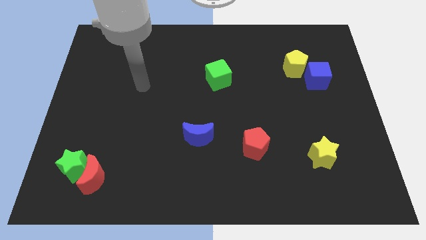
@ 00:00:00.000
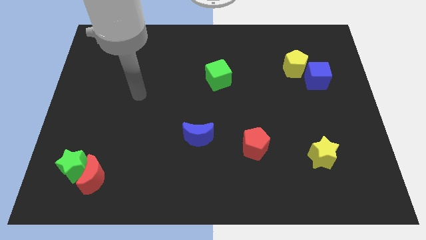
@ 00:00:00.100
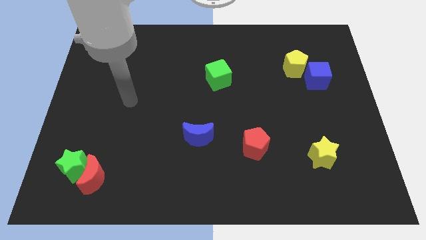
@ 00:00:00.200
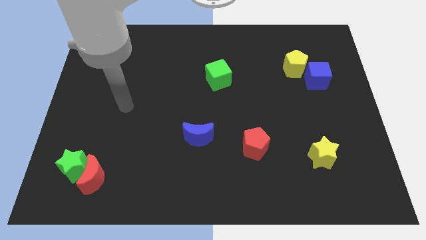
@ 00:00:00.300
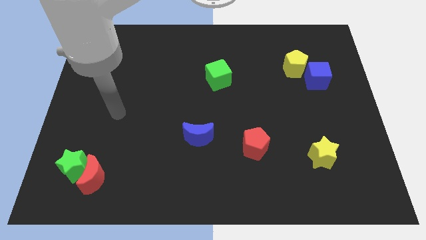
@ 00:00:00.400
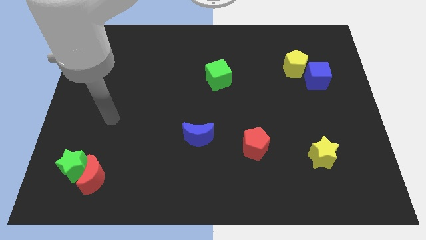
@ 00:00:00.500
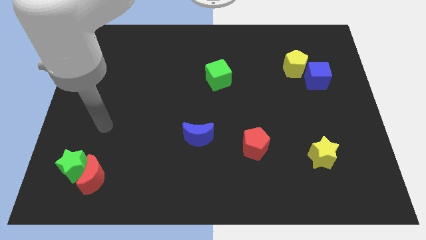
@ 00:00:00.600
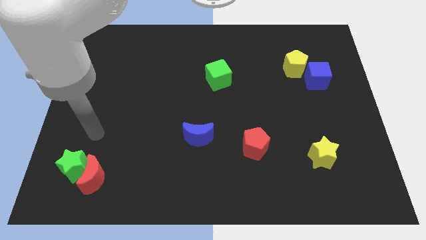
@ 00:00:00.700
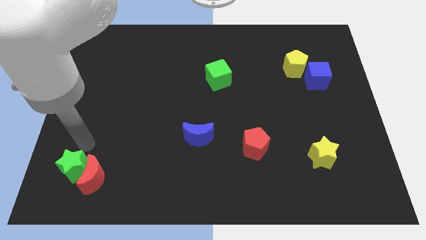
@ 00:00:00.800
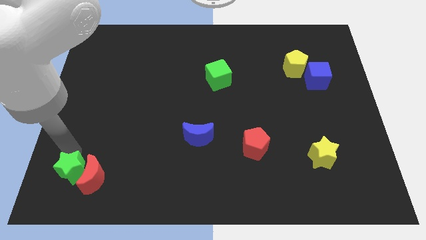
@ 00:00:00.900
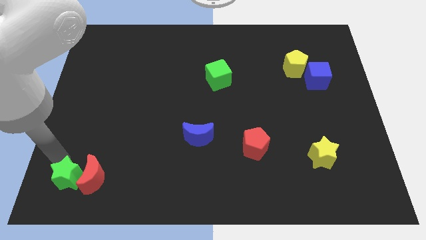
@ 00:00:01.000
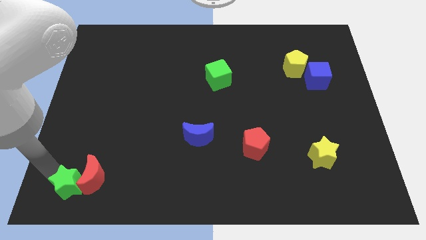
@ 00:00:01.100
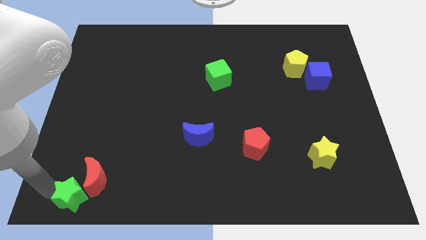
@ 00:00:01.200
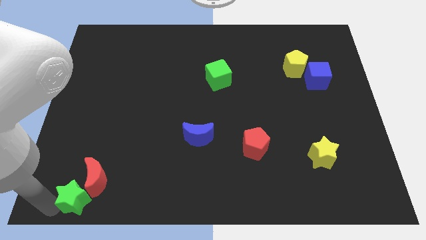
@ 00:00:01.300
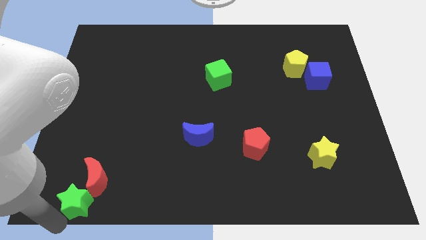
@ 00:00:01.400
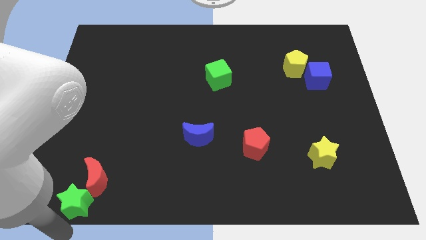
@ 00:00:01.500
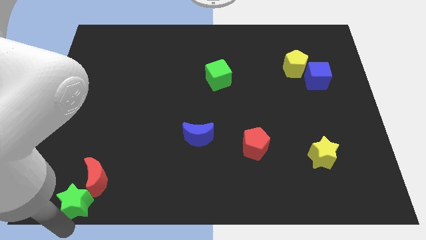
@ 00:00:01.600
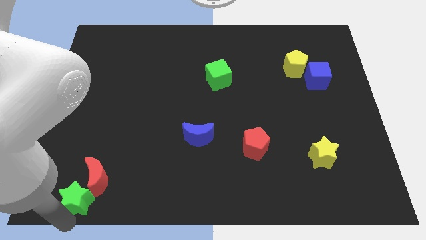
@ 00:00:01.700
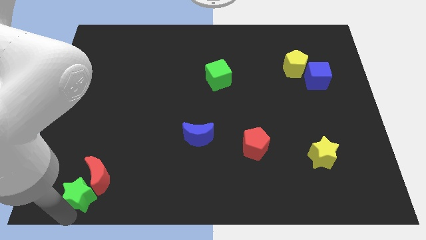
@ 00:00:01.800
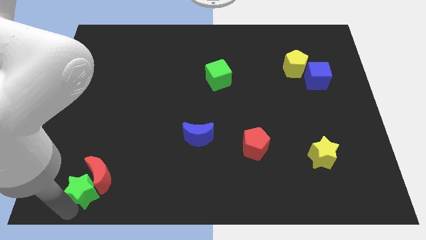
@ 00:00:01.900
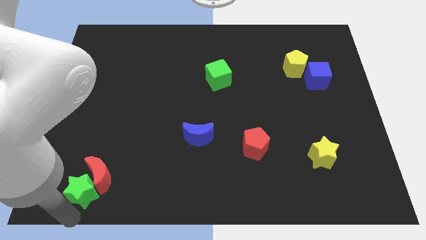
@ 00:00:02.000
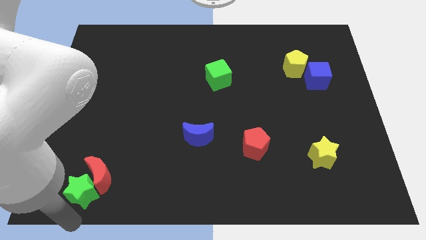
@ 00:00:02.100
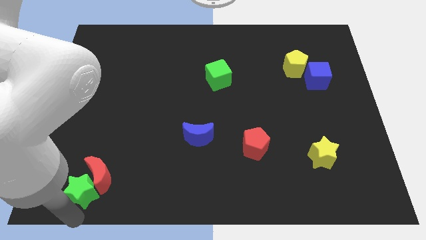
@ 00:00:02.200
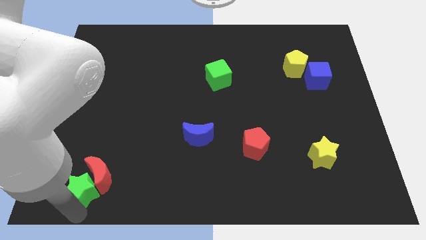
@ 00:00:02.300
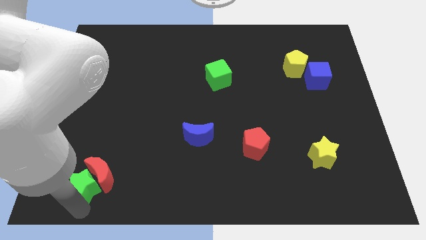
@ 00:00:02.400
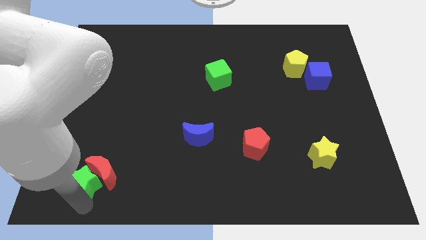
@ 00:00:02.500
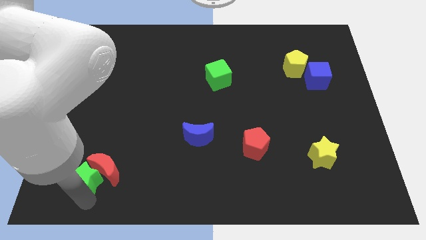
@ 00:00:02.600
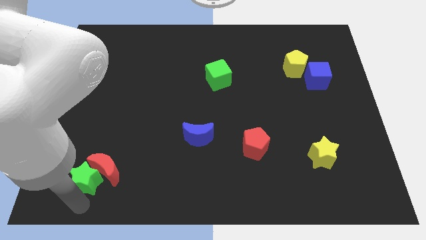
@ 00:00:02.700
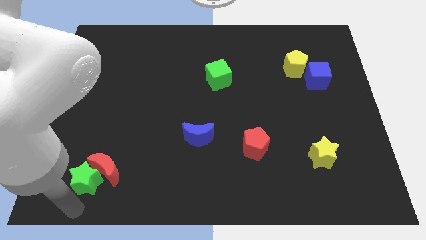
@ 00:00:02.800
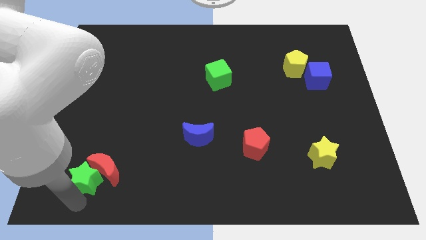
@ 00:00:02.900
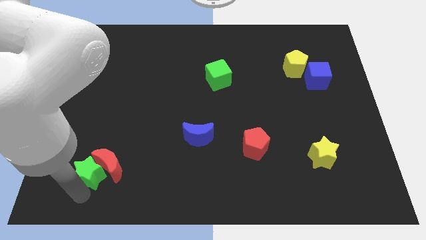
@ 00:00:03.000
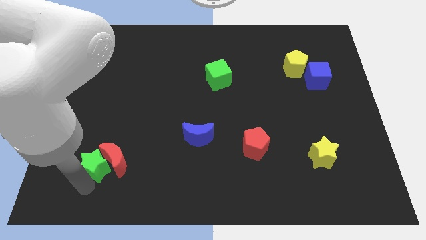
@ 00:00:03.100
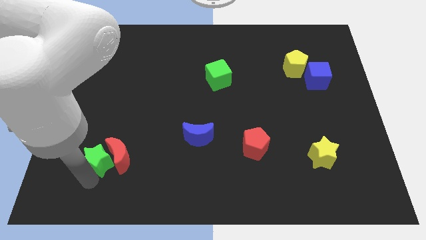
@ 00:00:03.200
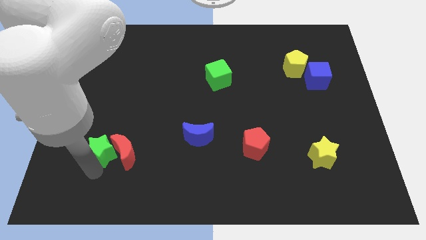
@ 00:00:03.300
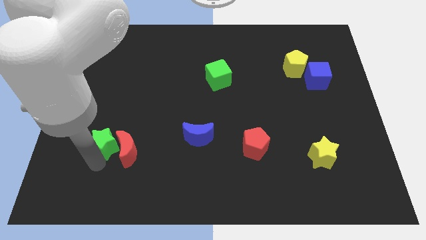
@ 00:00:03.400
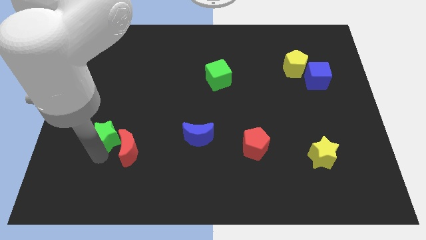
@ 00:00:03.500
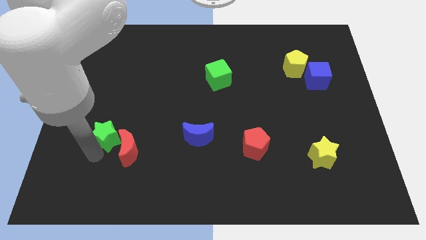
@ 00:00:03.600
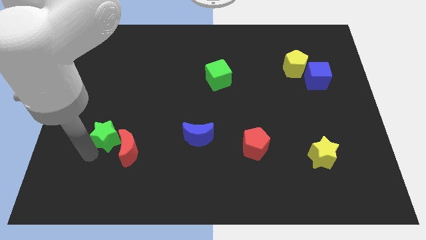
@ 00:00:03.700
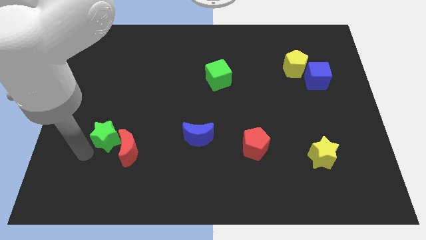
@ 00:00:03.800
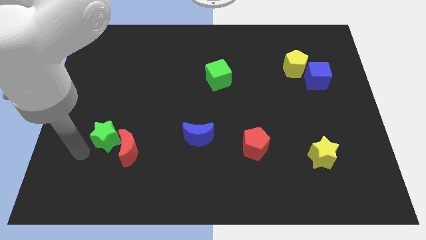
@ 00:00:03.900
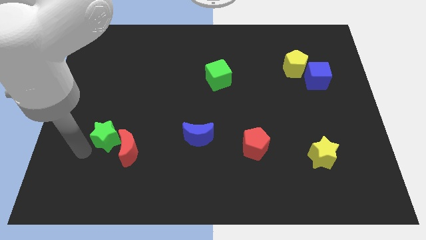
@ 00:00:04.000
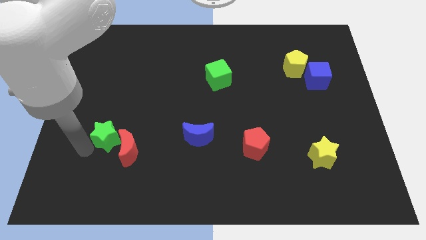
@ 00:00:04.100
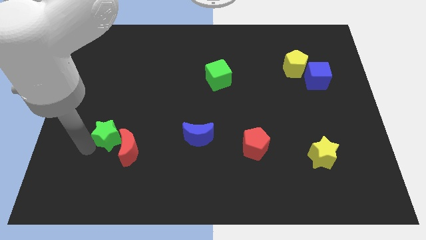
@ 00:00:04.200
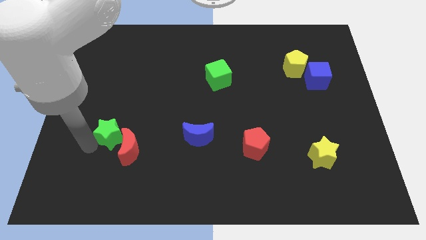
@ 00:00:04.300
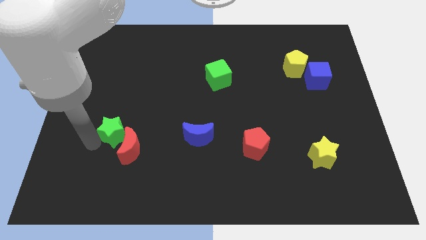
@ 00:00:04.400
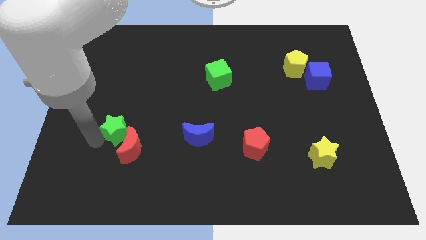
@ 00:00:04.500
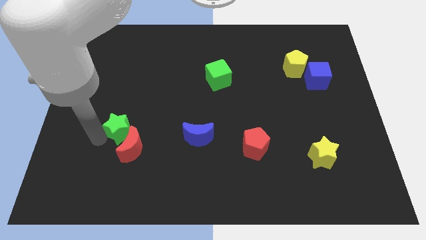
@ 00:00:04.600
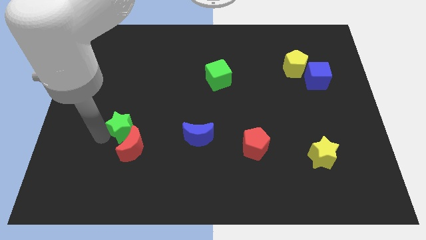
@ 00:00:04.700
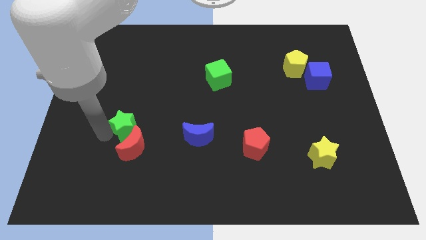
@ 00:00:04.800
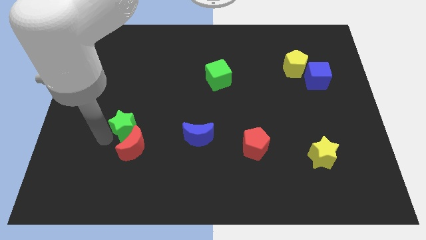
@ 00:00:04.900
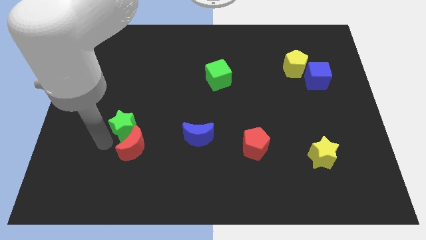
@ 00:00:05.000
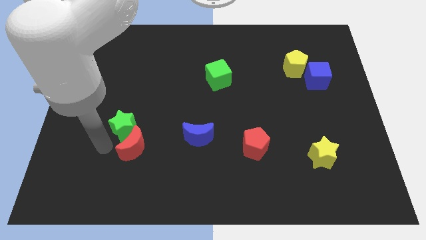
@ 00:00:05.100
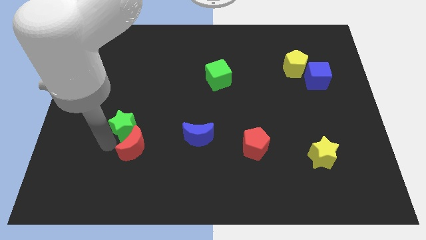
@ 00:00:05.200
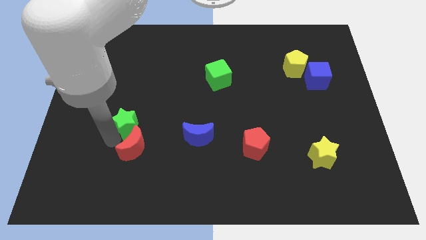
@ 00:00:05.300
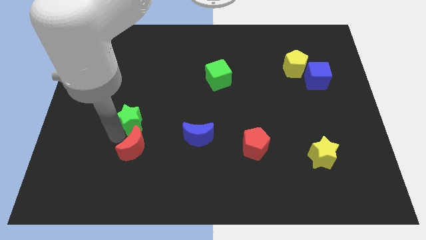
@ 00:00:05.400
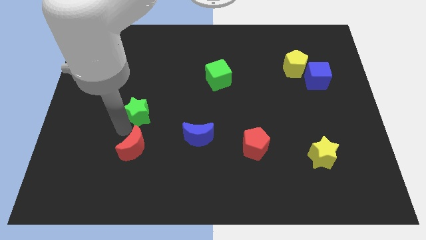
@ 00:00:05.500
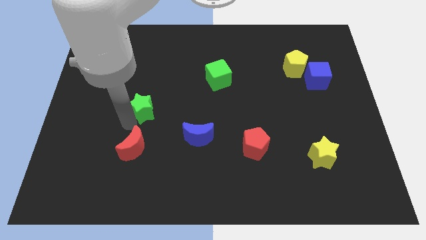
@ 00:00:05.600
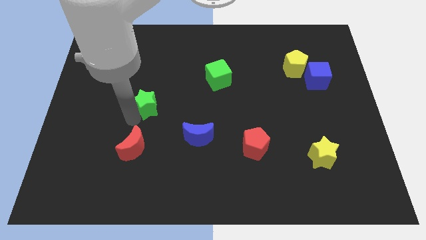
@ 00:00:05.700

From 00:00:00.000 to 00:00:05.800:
move the green star diagonally up and right

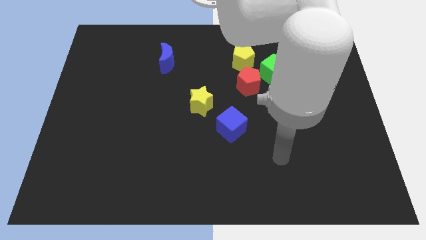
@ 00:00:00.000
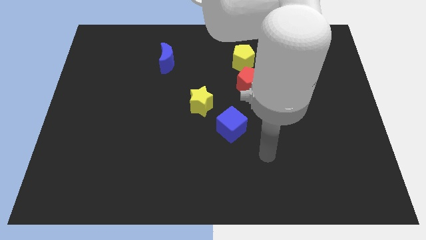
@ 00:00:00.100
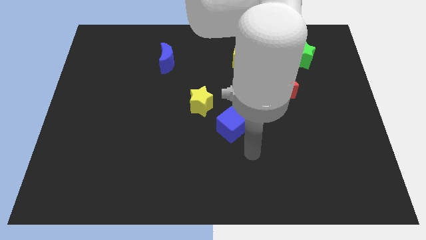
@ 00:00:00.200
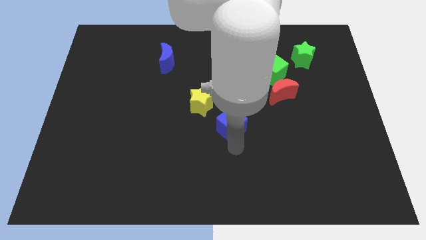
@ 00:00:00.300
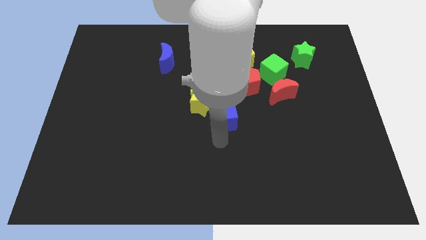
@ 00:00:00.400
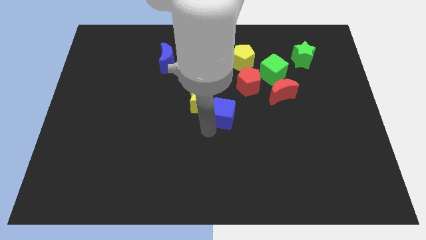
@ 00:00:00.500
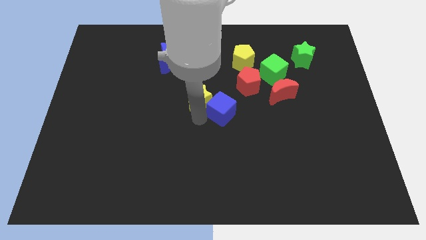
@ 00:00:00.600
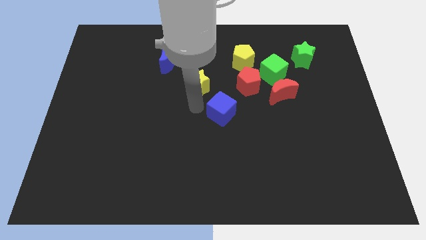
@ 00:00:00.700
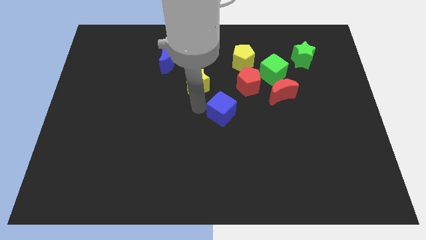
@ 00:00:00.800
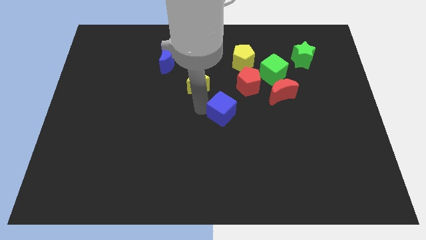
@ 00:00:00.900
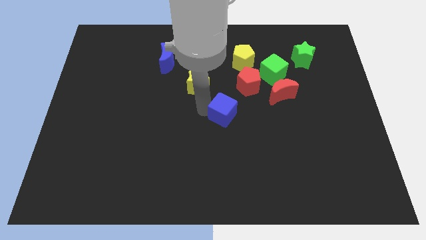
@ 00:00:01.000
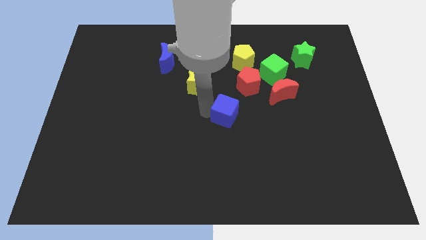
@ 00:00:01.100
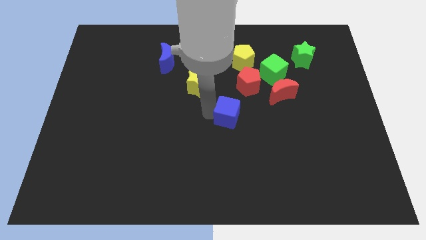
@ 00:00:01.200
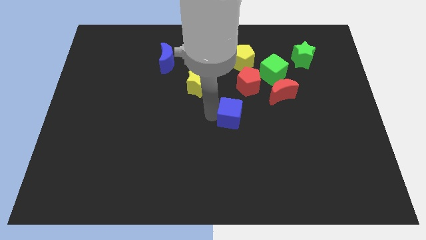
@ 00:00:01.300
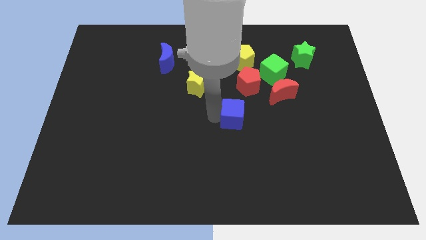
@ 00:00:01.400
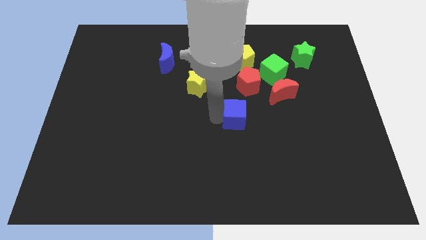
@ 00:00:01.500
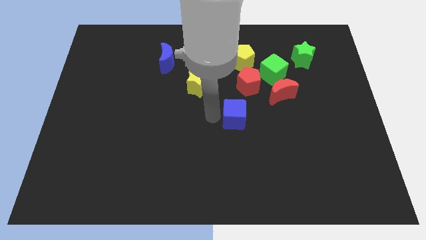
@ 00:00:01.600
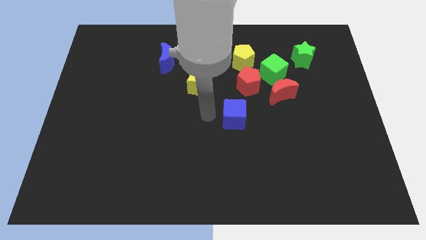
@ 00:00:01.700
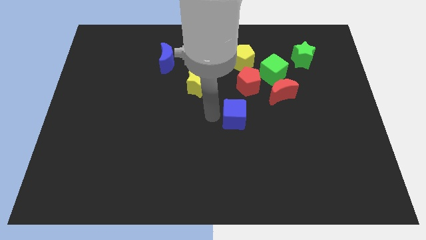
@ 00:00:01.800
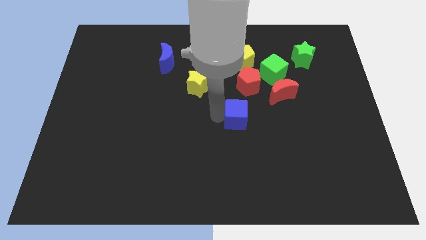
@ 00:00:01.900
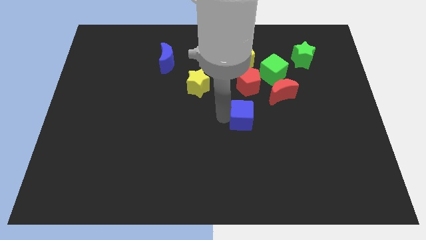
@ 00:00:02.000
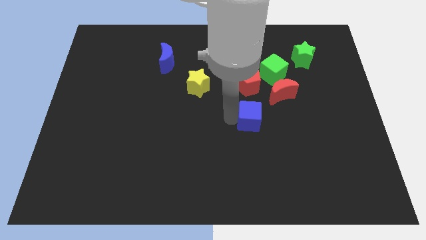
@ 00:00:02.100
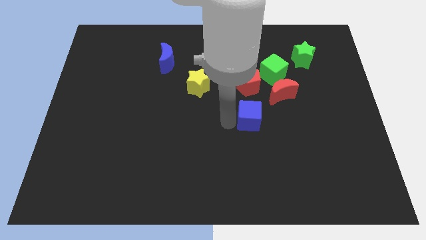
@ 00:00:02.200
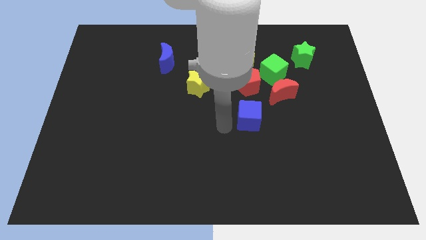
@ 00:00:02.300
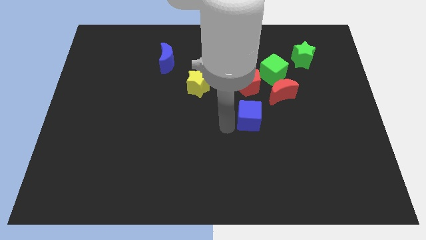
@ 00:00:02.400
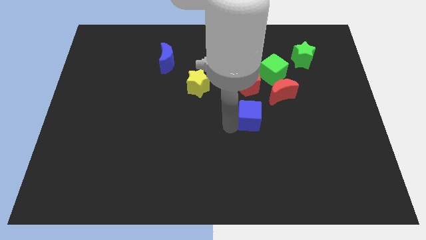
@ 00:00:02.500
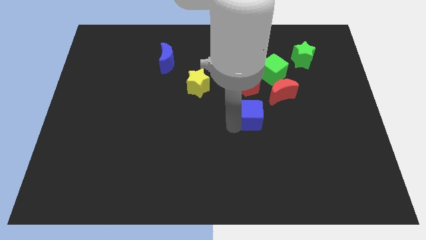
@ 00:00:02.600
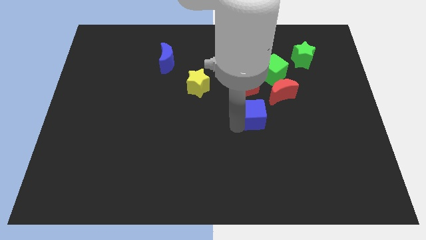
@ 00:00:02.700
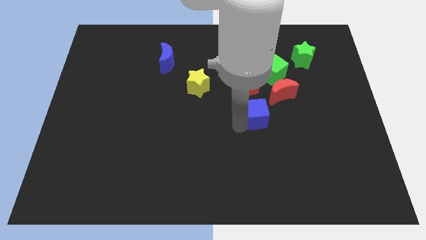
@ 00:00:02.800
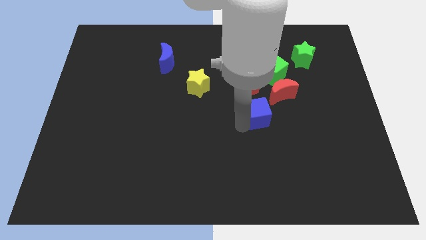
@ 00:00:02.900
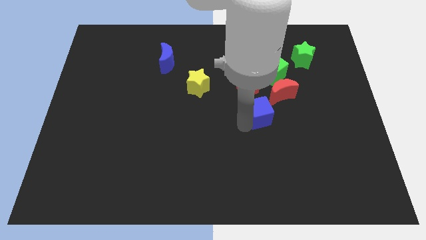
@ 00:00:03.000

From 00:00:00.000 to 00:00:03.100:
push the blue cube a little bit up and right diagonally
